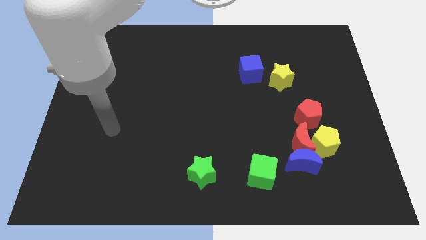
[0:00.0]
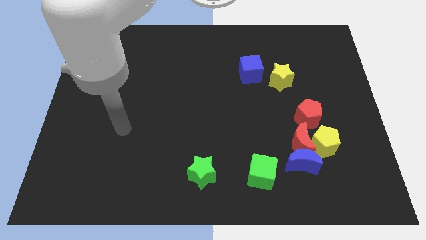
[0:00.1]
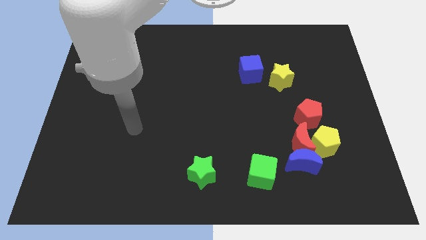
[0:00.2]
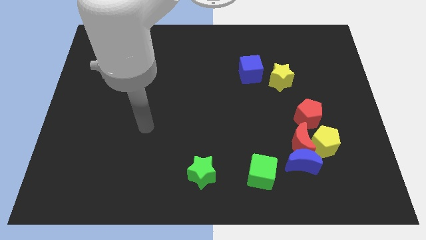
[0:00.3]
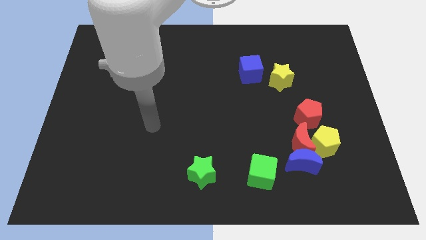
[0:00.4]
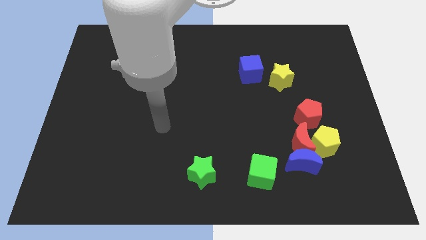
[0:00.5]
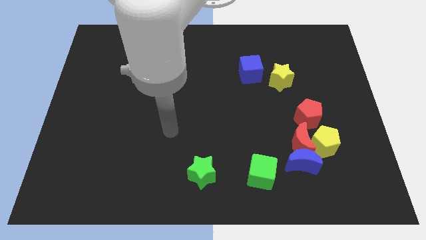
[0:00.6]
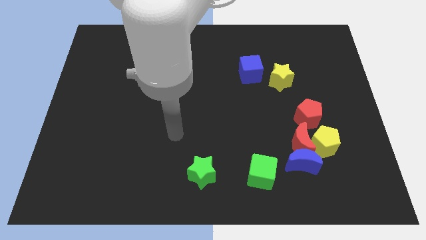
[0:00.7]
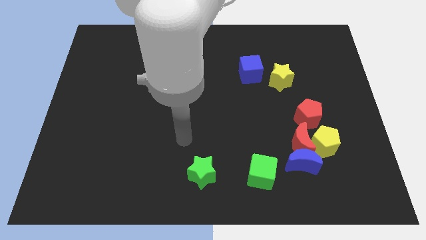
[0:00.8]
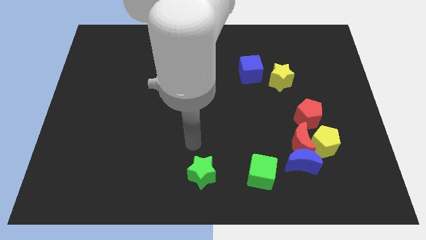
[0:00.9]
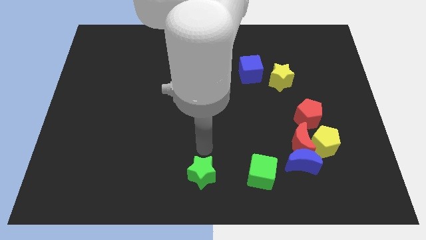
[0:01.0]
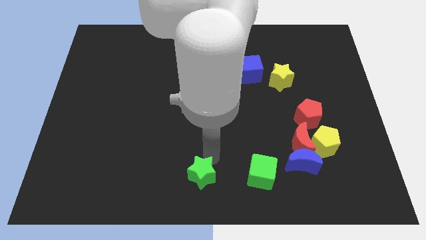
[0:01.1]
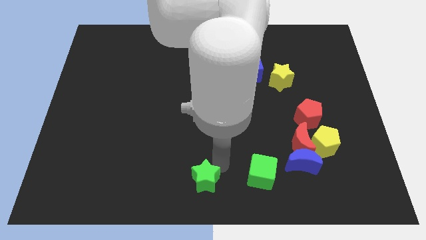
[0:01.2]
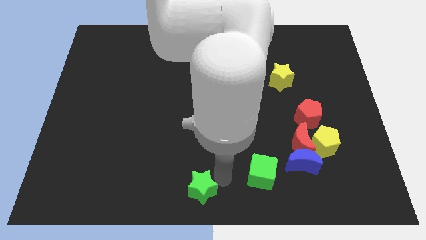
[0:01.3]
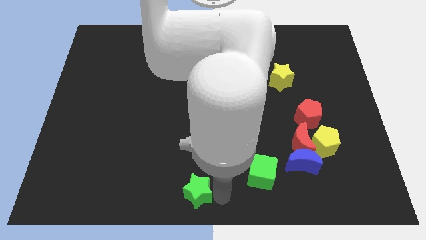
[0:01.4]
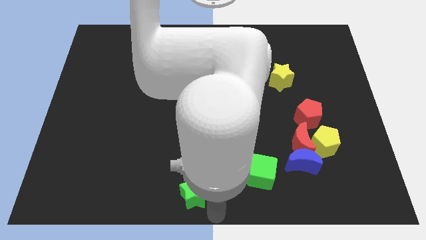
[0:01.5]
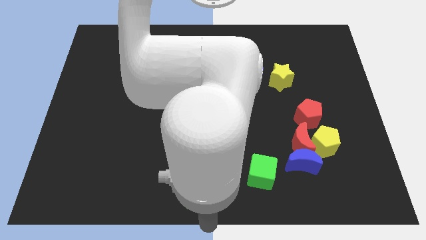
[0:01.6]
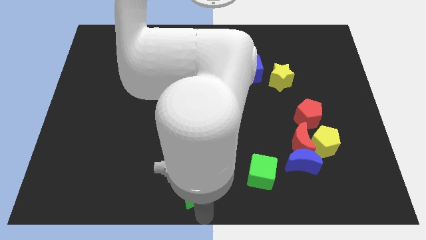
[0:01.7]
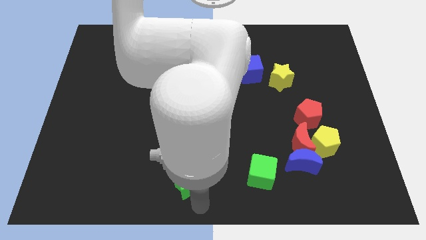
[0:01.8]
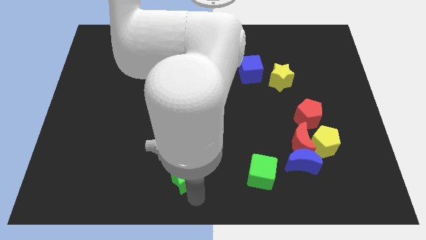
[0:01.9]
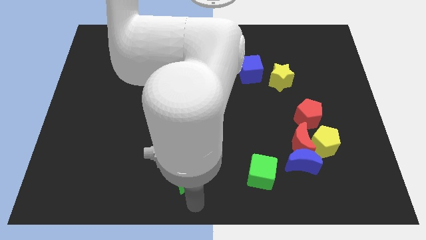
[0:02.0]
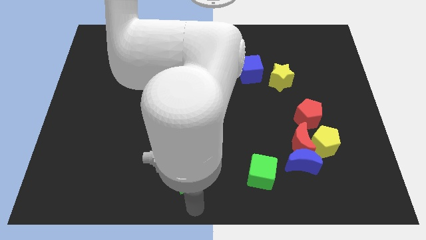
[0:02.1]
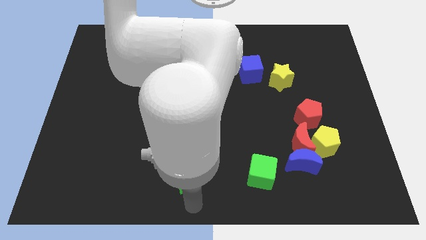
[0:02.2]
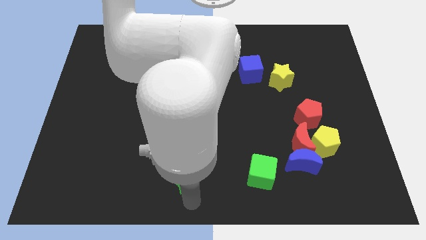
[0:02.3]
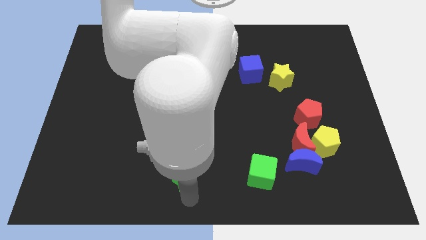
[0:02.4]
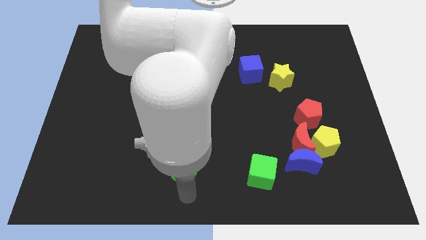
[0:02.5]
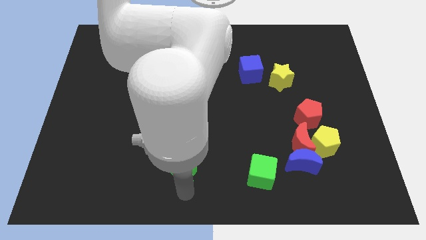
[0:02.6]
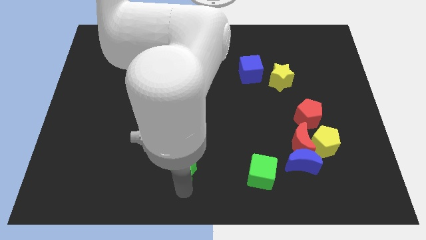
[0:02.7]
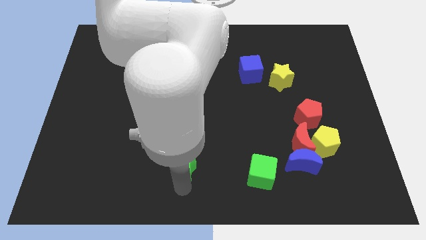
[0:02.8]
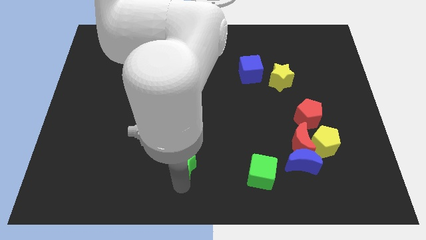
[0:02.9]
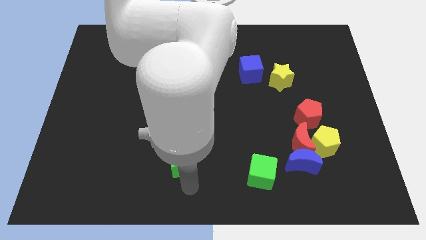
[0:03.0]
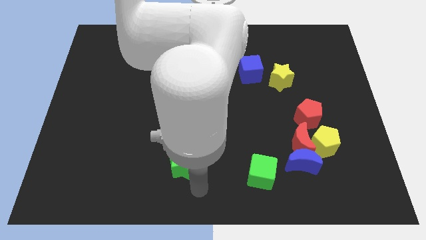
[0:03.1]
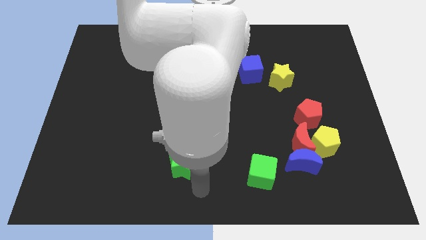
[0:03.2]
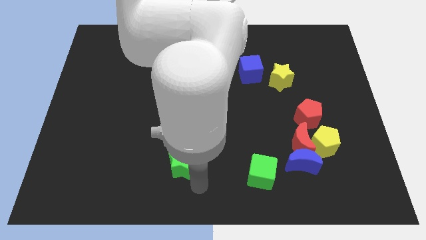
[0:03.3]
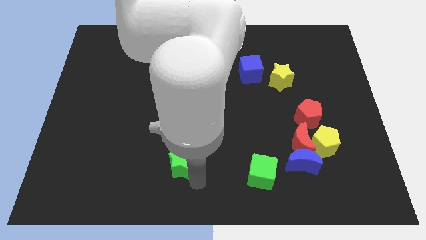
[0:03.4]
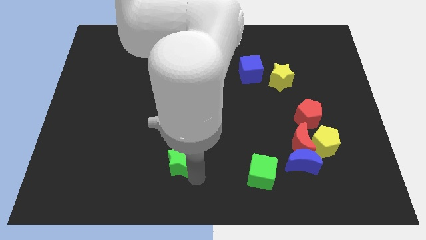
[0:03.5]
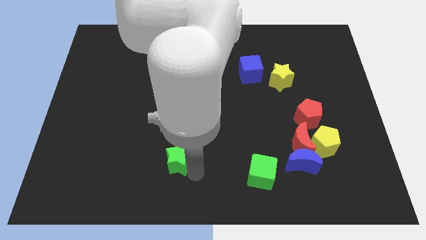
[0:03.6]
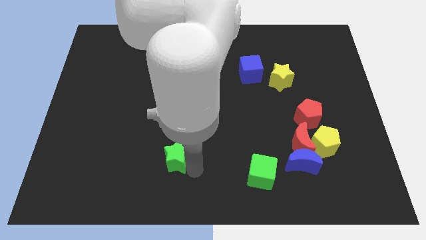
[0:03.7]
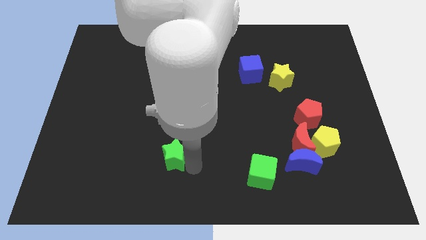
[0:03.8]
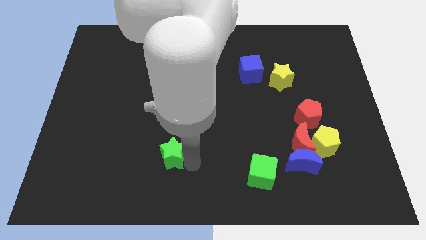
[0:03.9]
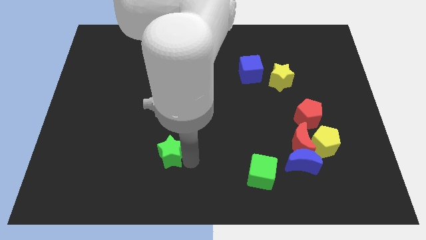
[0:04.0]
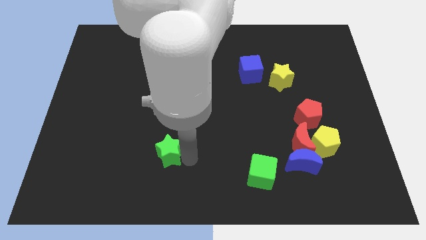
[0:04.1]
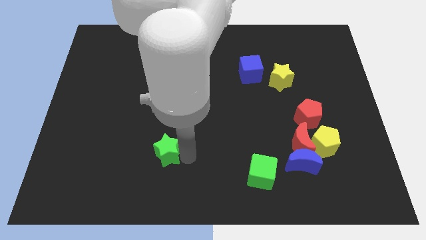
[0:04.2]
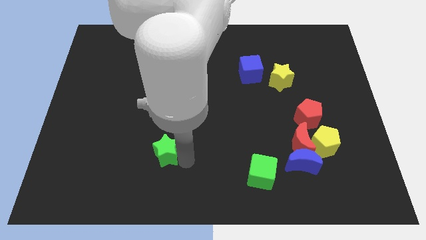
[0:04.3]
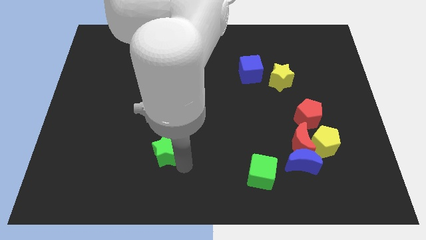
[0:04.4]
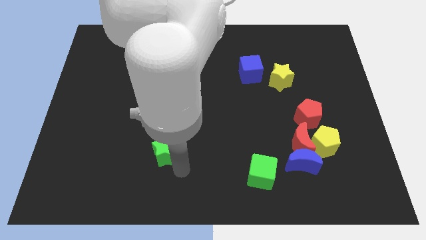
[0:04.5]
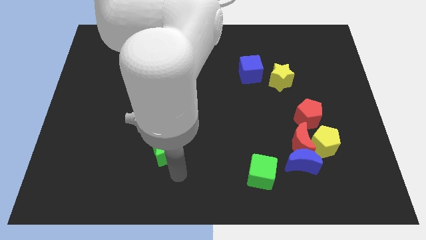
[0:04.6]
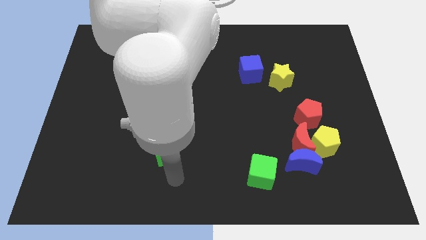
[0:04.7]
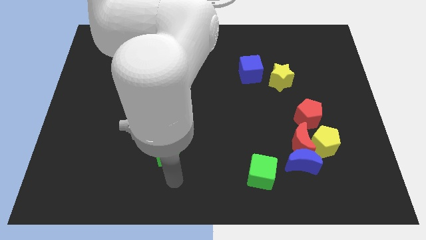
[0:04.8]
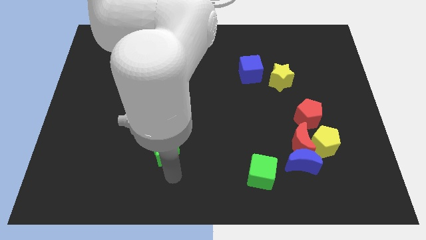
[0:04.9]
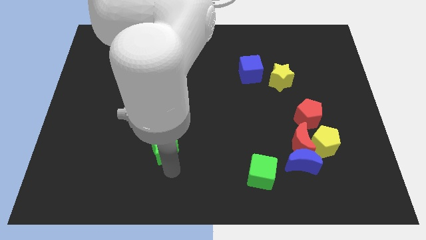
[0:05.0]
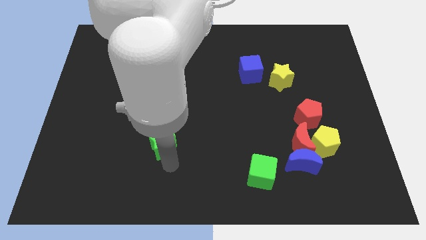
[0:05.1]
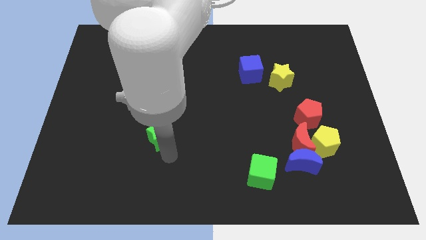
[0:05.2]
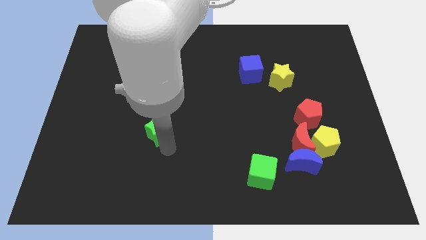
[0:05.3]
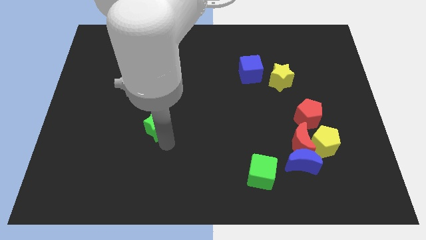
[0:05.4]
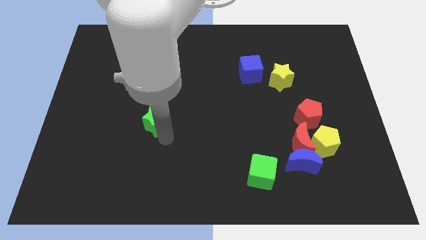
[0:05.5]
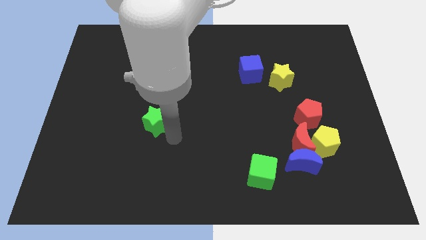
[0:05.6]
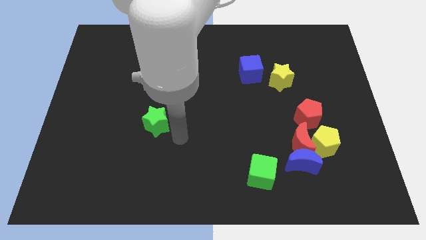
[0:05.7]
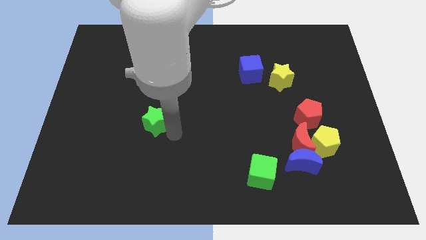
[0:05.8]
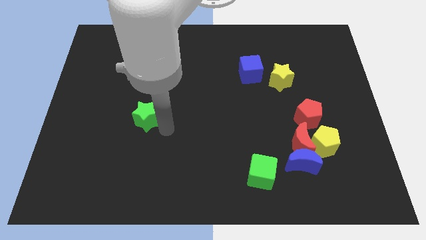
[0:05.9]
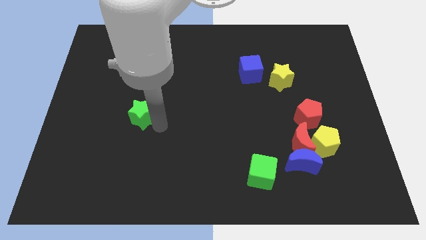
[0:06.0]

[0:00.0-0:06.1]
push the green star up and then to the left

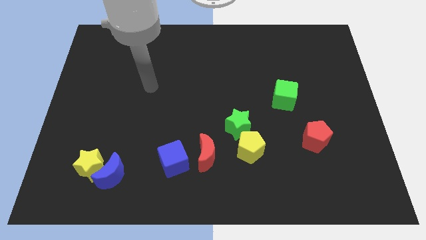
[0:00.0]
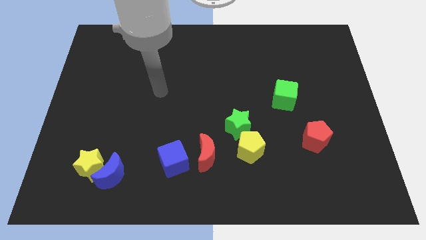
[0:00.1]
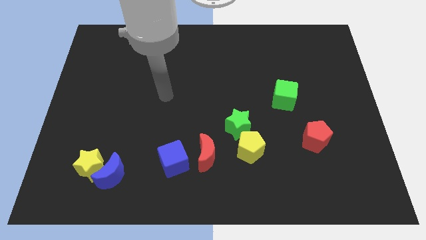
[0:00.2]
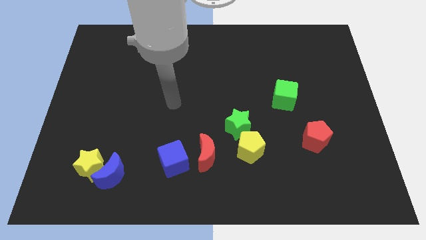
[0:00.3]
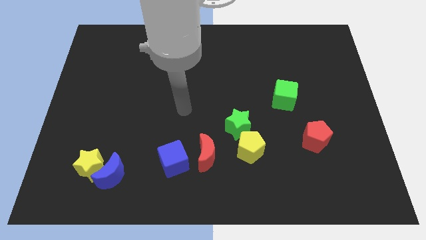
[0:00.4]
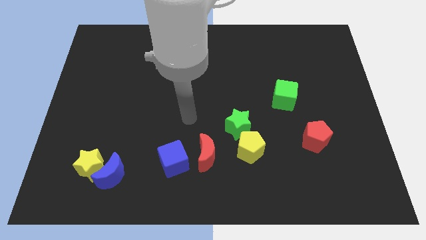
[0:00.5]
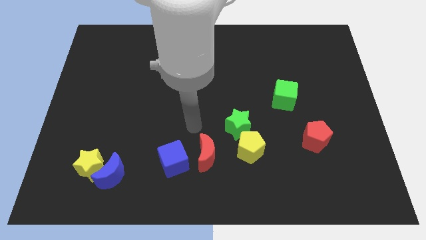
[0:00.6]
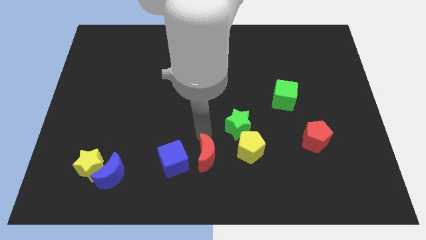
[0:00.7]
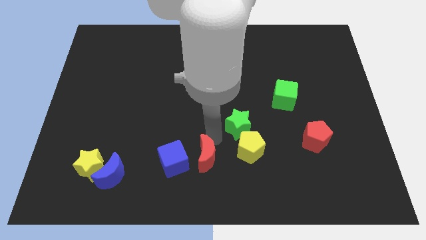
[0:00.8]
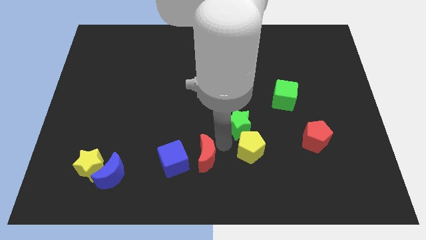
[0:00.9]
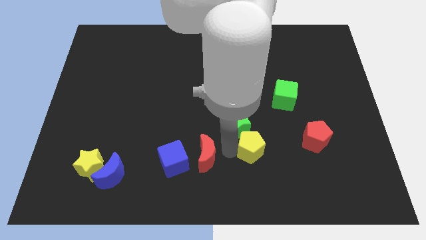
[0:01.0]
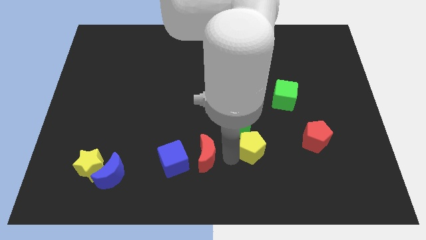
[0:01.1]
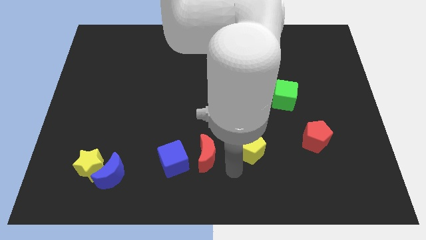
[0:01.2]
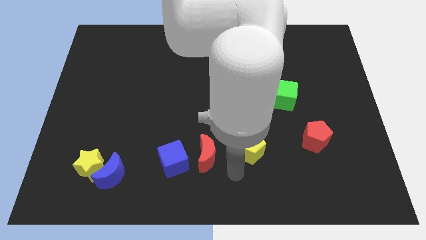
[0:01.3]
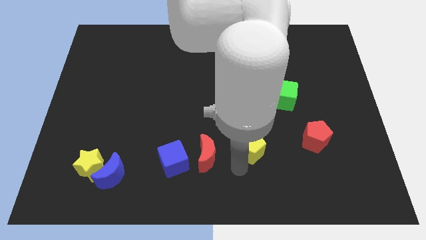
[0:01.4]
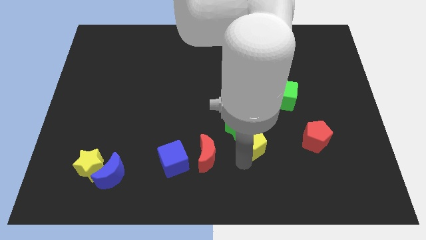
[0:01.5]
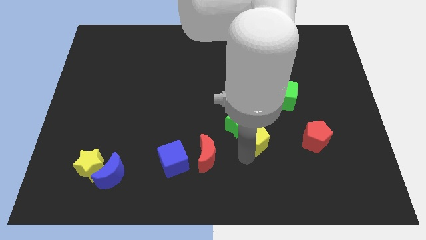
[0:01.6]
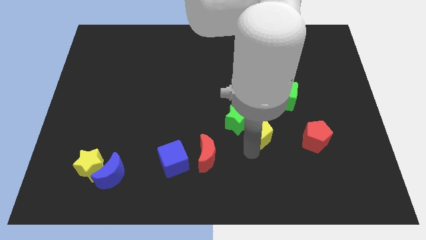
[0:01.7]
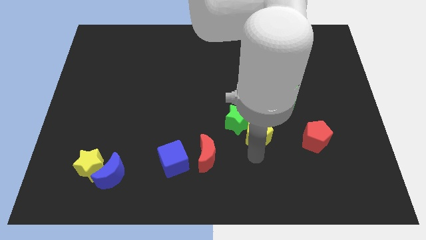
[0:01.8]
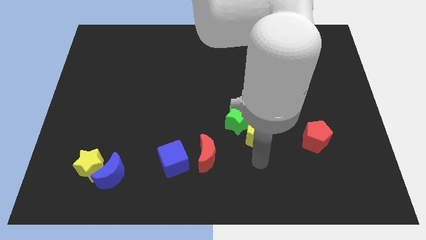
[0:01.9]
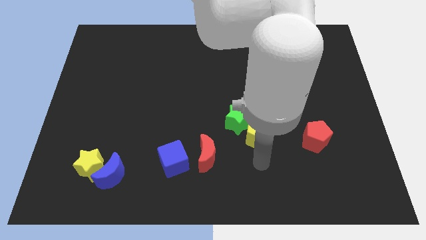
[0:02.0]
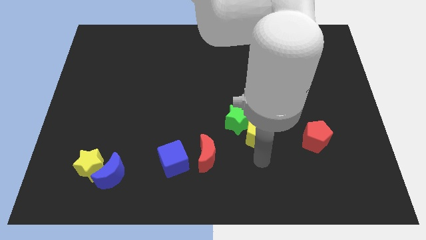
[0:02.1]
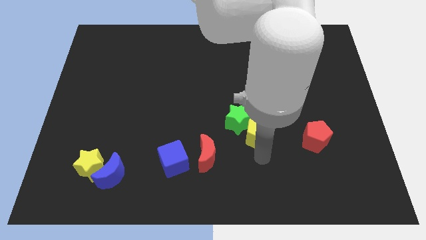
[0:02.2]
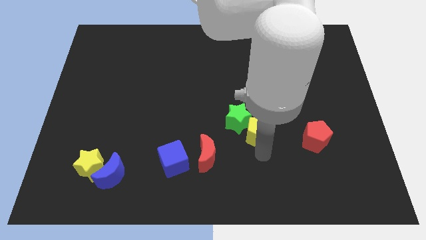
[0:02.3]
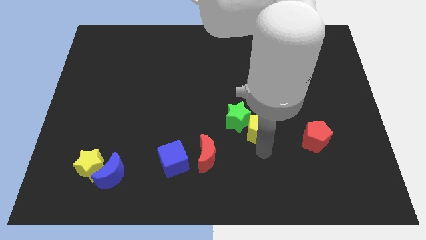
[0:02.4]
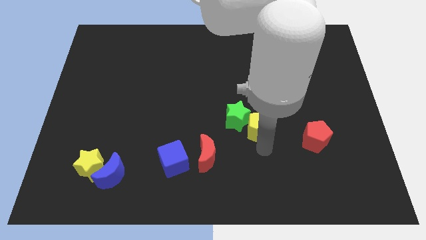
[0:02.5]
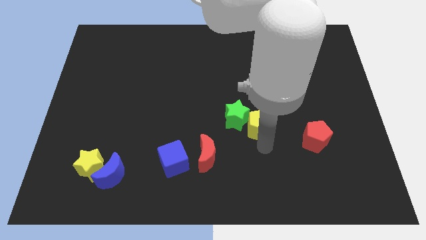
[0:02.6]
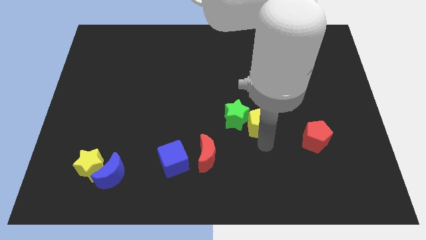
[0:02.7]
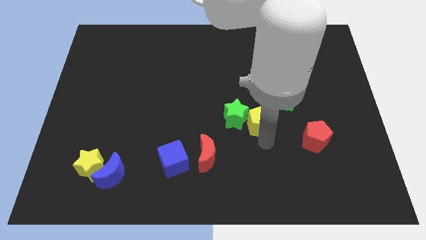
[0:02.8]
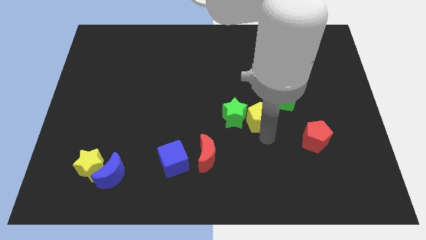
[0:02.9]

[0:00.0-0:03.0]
slightly push the yellow pentagon up
